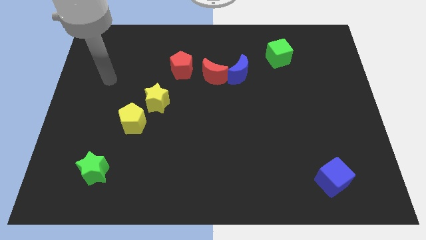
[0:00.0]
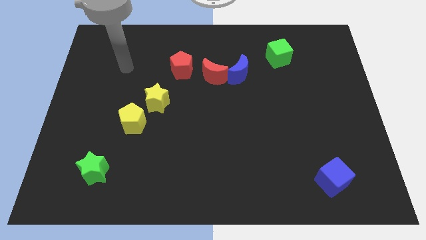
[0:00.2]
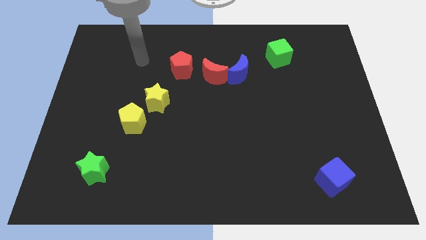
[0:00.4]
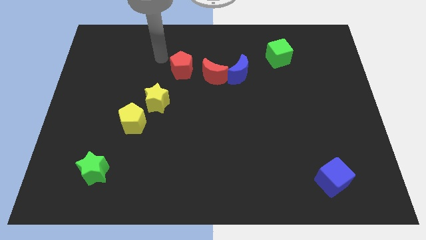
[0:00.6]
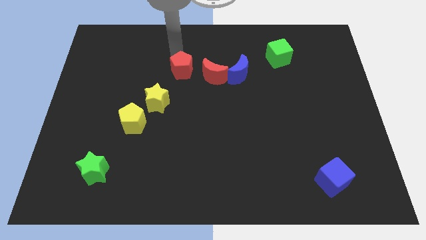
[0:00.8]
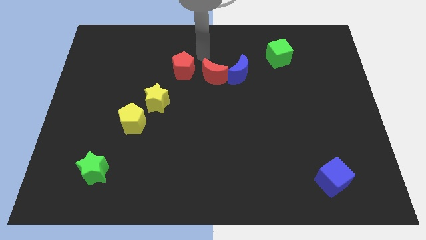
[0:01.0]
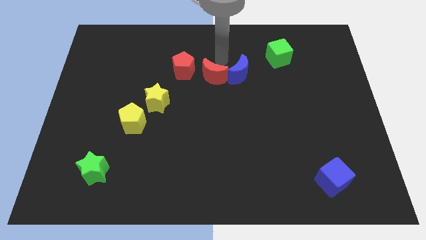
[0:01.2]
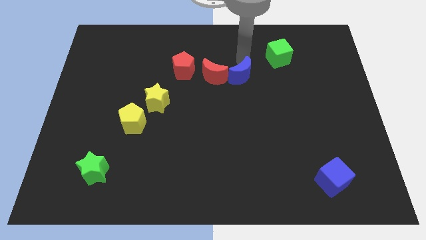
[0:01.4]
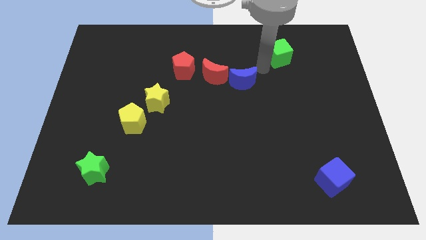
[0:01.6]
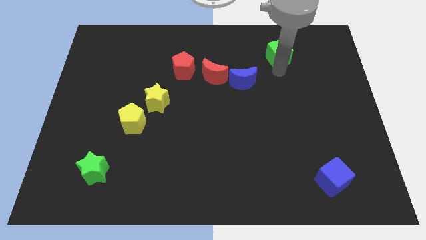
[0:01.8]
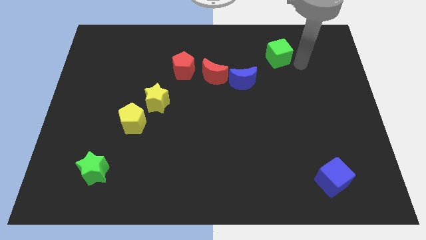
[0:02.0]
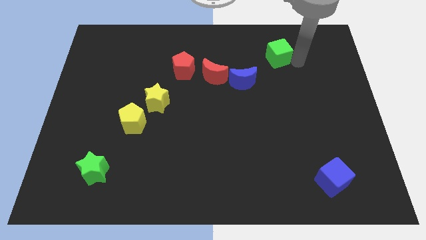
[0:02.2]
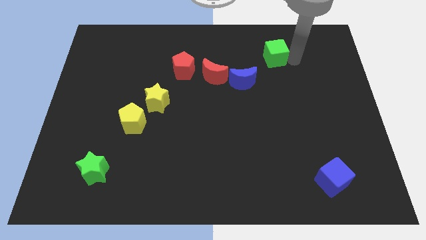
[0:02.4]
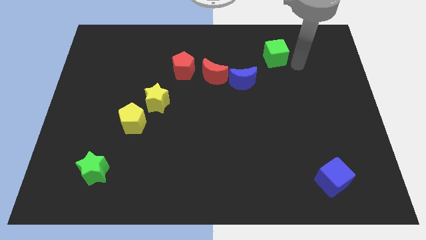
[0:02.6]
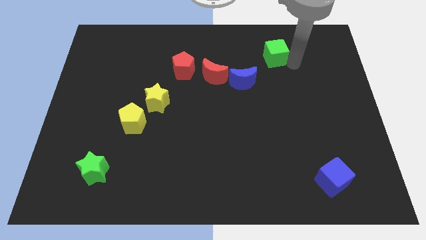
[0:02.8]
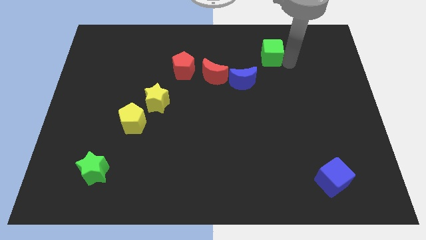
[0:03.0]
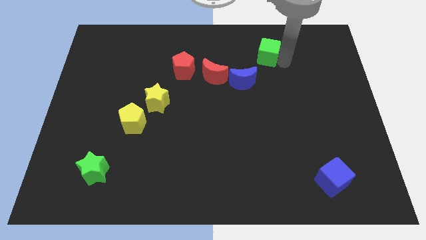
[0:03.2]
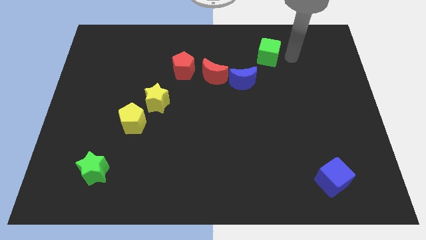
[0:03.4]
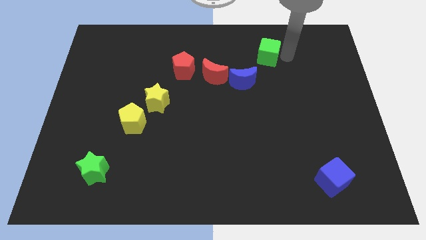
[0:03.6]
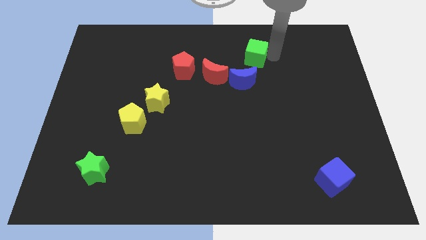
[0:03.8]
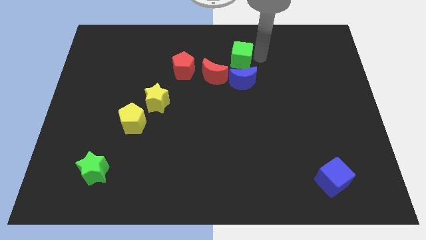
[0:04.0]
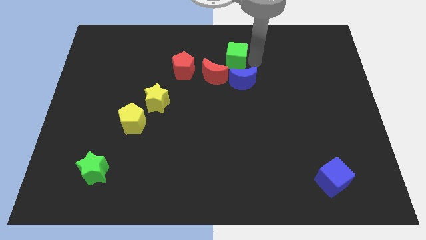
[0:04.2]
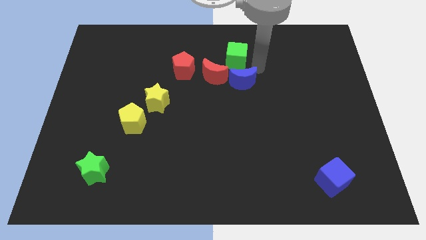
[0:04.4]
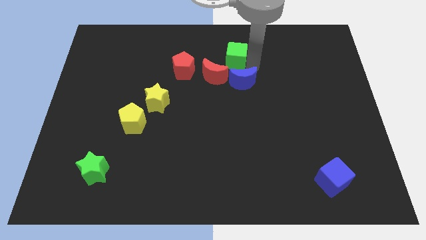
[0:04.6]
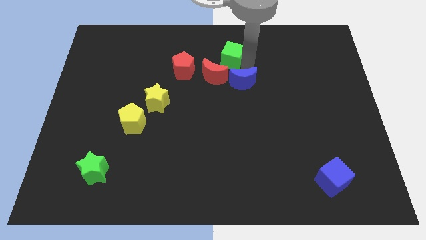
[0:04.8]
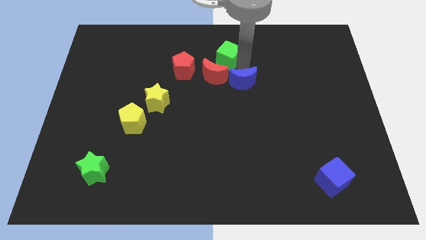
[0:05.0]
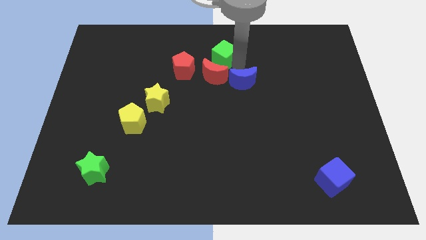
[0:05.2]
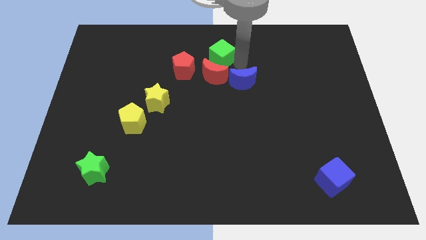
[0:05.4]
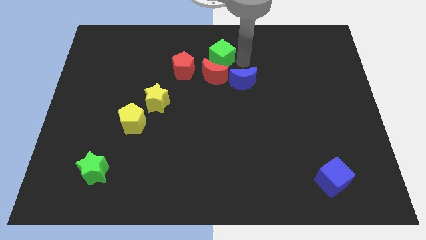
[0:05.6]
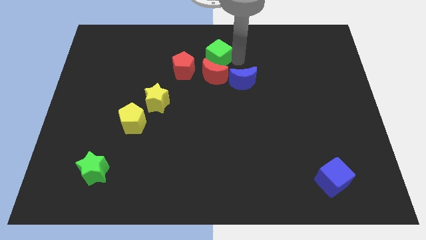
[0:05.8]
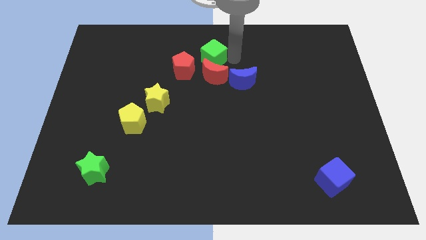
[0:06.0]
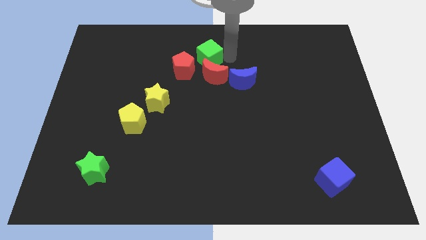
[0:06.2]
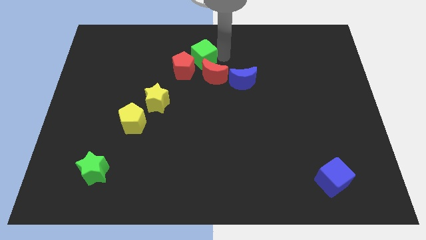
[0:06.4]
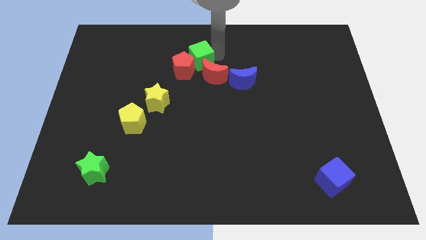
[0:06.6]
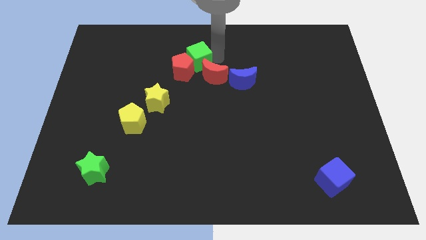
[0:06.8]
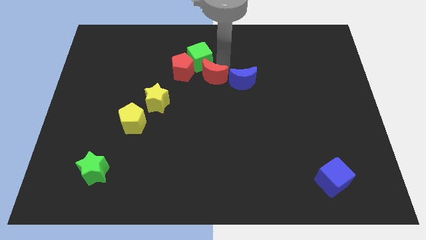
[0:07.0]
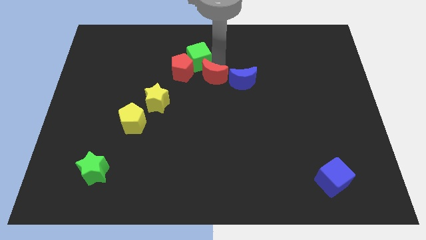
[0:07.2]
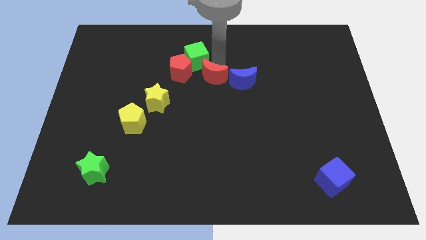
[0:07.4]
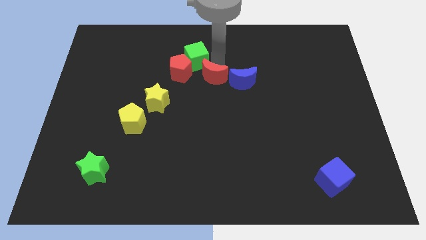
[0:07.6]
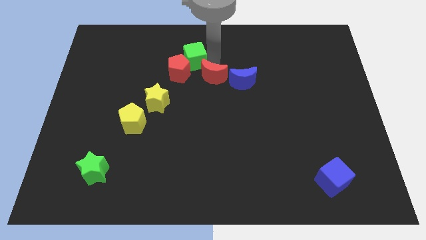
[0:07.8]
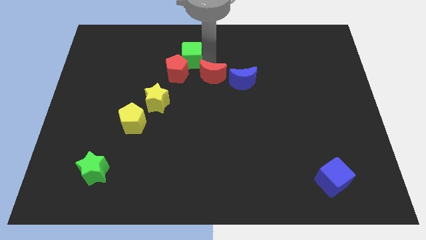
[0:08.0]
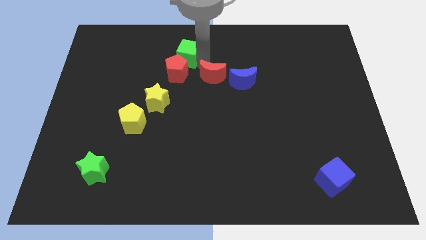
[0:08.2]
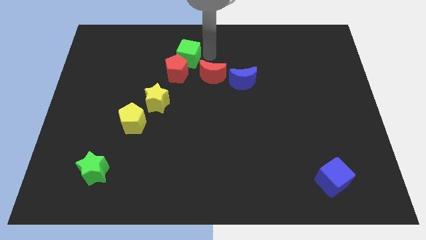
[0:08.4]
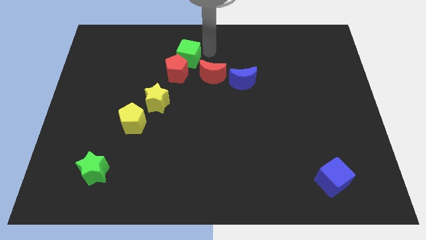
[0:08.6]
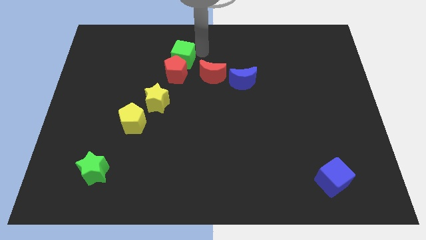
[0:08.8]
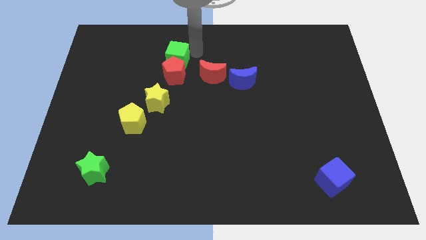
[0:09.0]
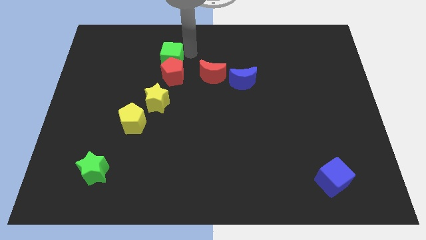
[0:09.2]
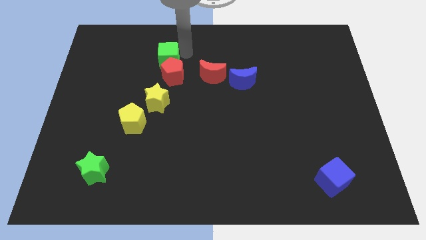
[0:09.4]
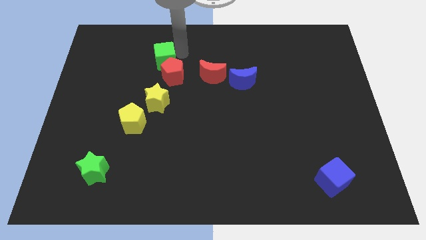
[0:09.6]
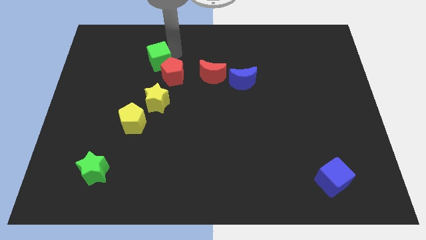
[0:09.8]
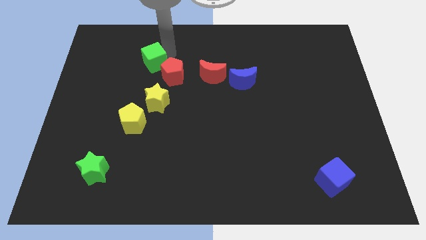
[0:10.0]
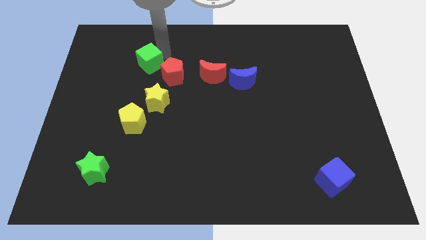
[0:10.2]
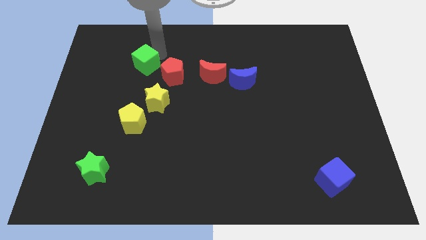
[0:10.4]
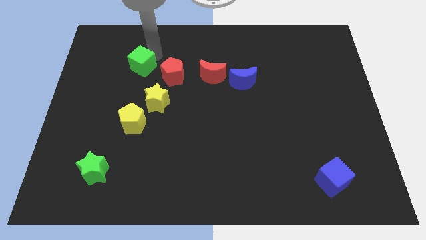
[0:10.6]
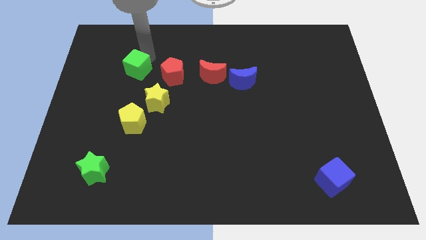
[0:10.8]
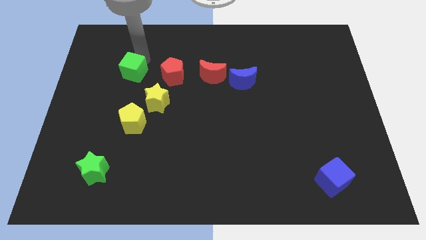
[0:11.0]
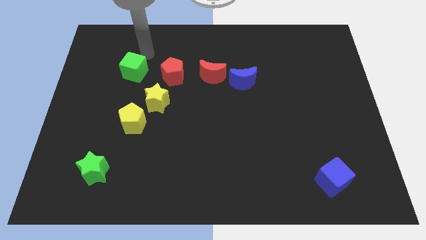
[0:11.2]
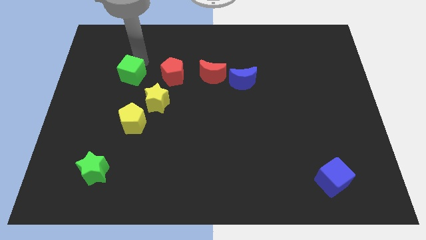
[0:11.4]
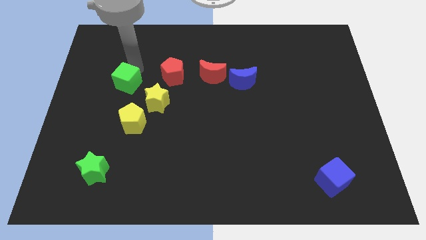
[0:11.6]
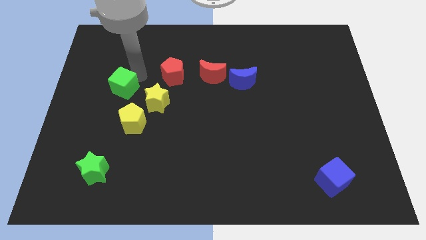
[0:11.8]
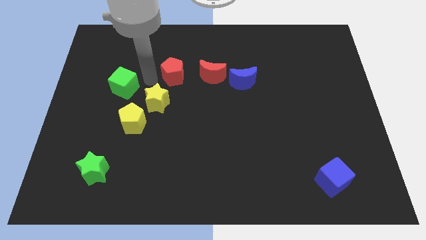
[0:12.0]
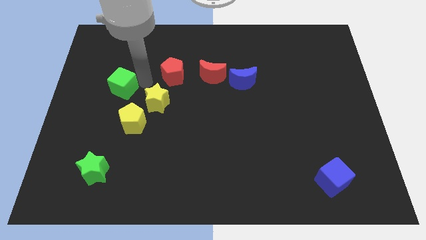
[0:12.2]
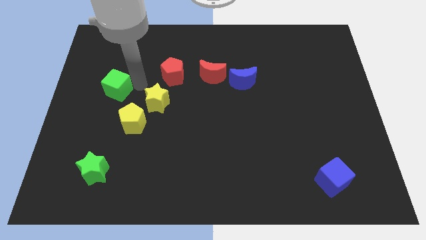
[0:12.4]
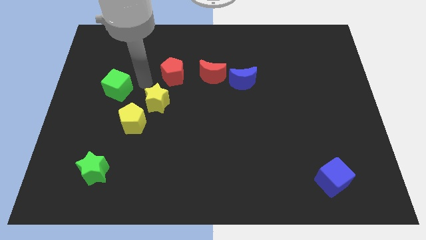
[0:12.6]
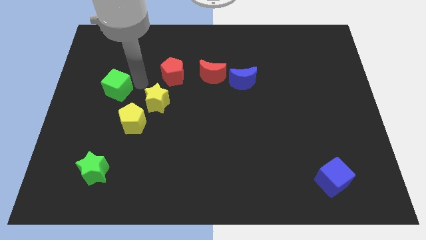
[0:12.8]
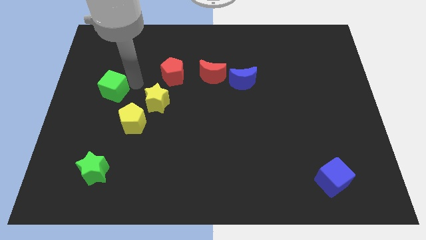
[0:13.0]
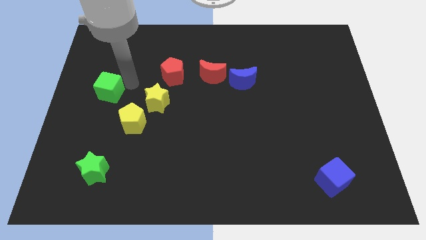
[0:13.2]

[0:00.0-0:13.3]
push the green cube to the center left

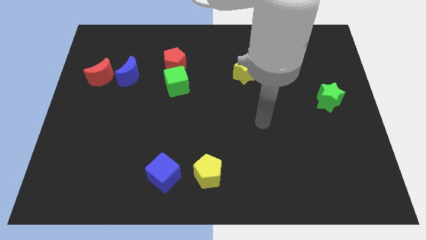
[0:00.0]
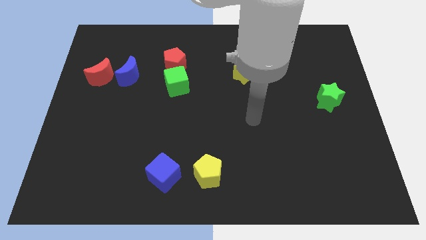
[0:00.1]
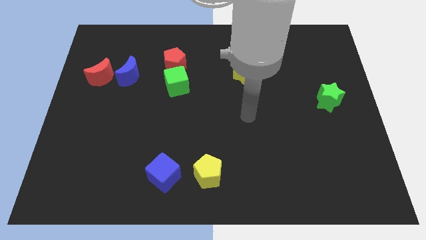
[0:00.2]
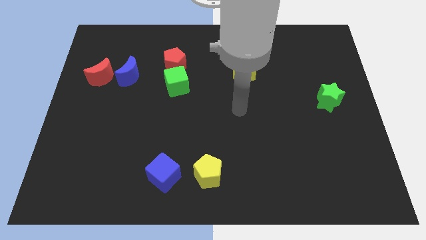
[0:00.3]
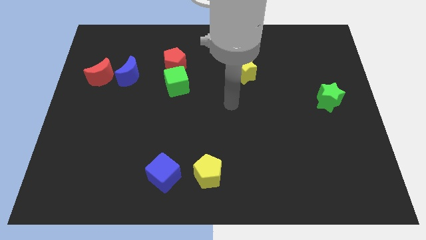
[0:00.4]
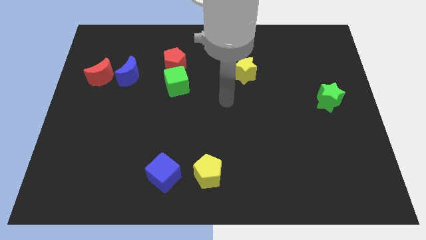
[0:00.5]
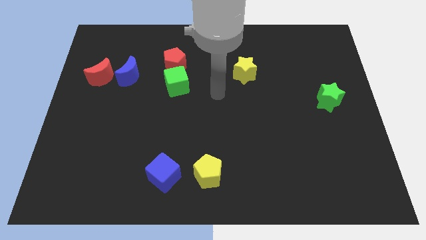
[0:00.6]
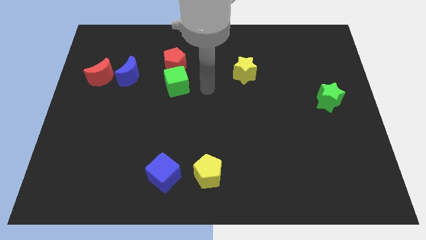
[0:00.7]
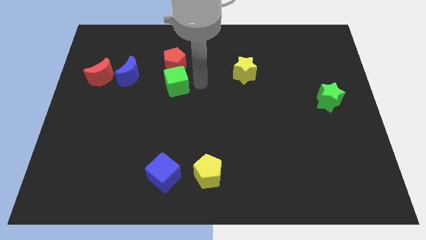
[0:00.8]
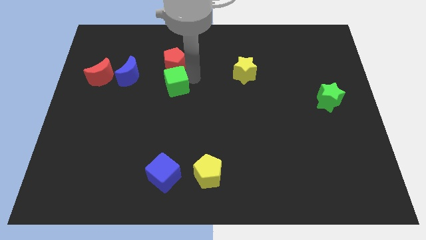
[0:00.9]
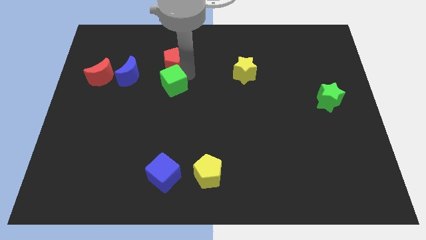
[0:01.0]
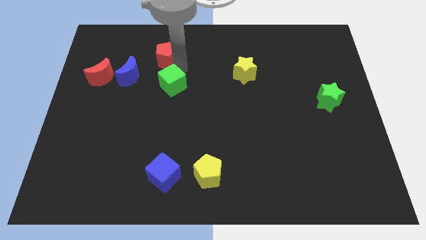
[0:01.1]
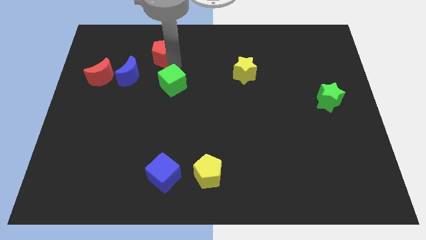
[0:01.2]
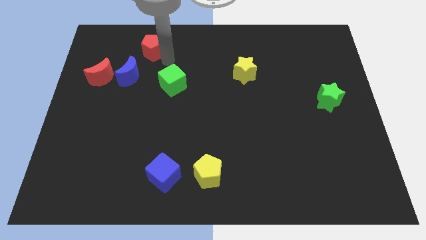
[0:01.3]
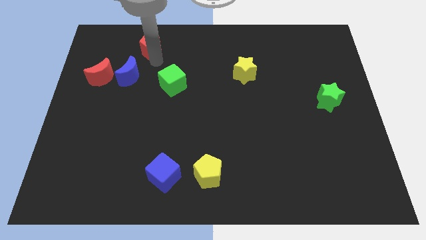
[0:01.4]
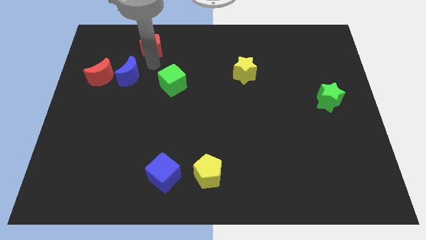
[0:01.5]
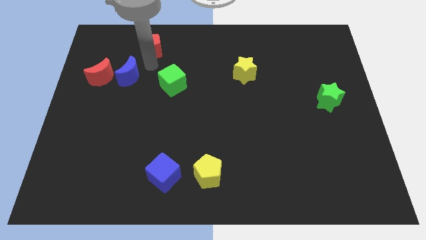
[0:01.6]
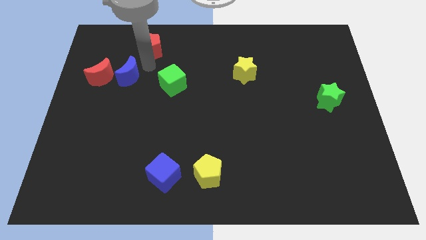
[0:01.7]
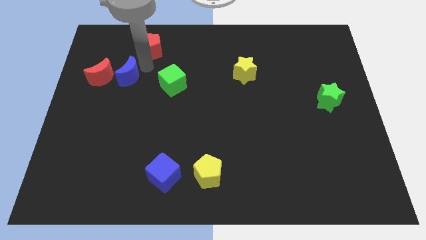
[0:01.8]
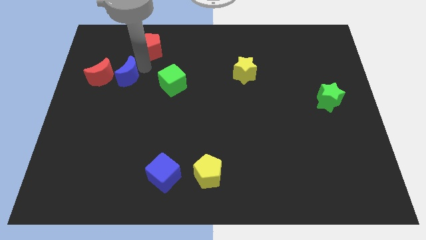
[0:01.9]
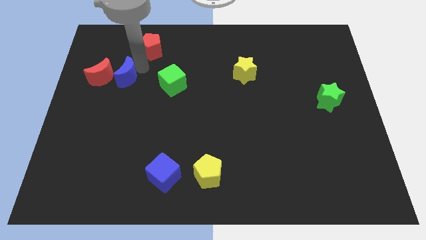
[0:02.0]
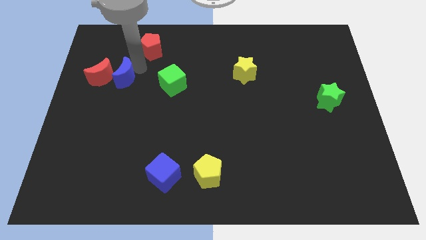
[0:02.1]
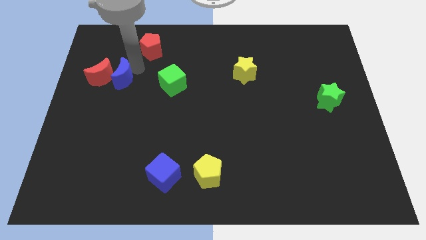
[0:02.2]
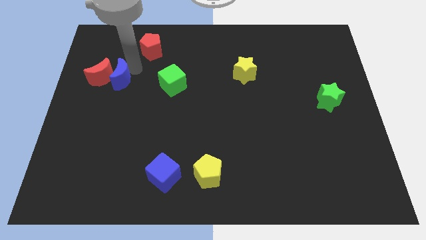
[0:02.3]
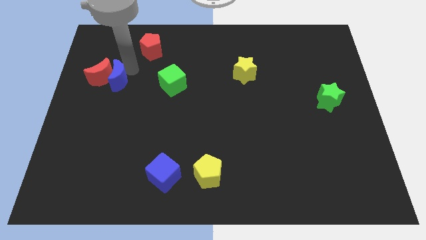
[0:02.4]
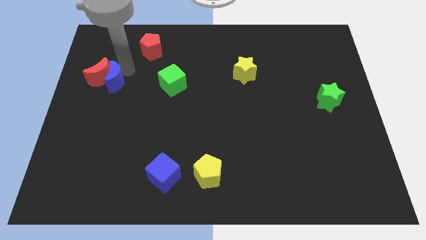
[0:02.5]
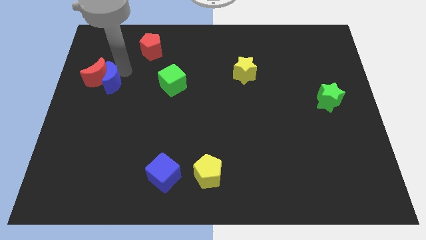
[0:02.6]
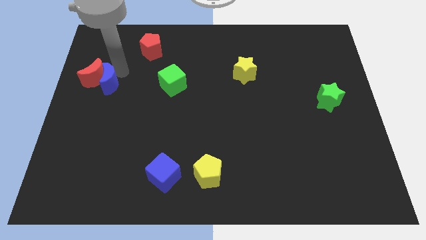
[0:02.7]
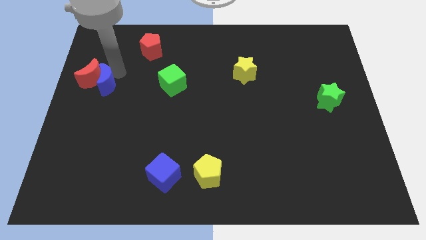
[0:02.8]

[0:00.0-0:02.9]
slide the blue moon to the center left
